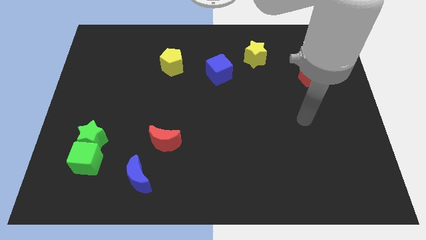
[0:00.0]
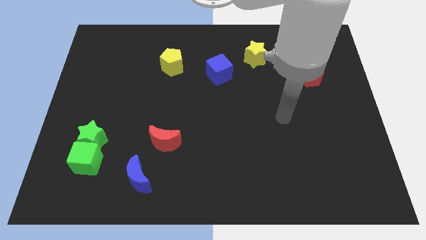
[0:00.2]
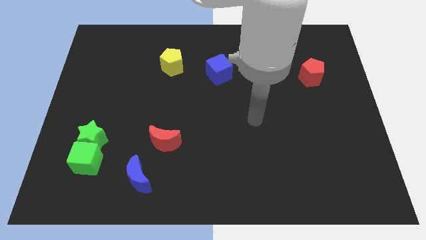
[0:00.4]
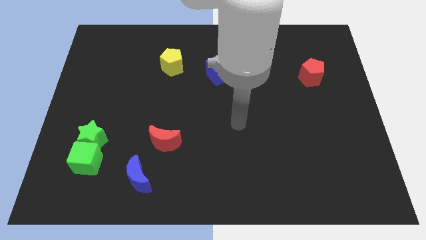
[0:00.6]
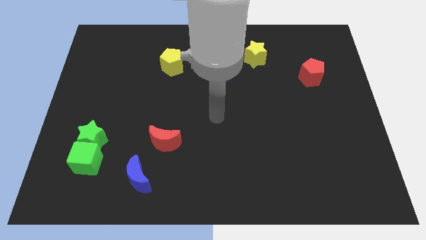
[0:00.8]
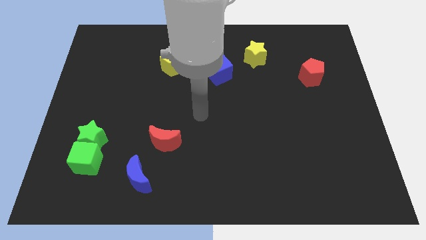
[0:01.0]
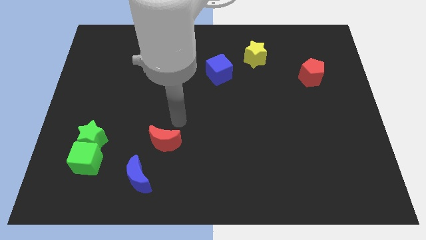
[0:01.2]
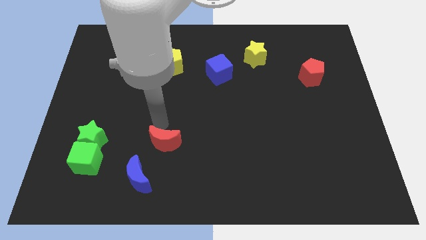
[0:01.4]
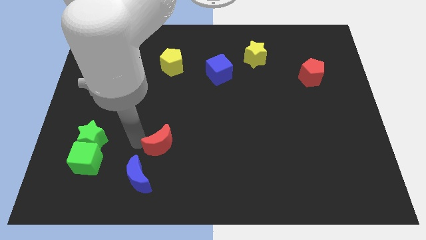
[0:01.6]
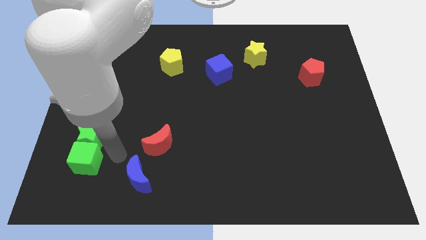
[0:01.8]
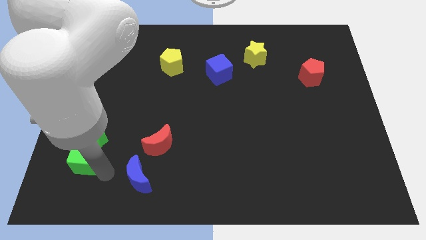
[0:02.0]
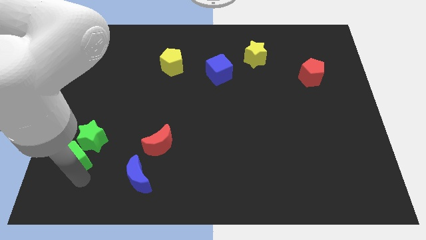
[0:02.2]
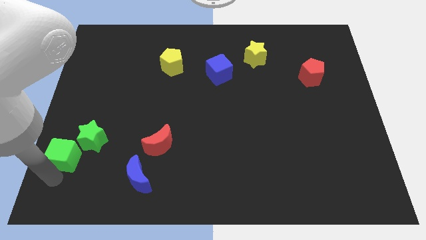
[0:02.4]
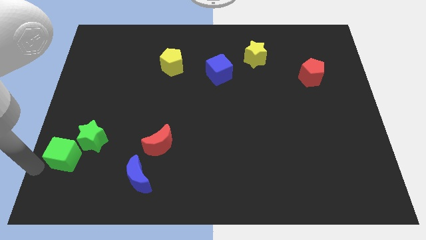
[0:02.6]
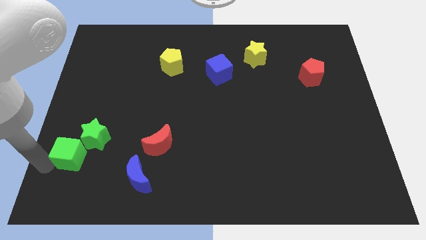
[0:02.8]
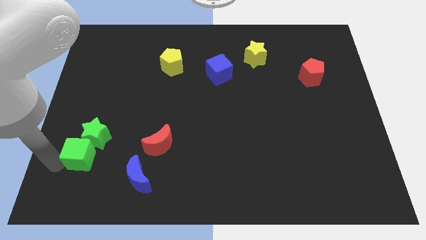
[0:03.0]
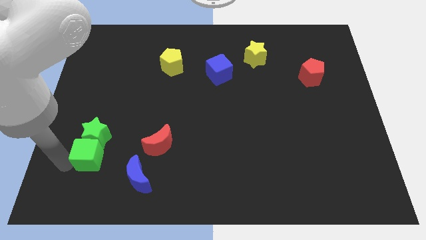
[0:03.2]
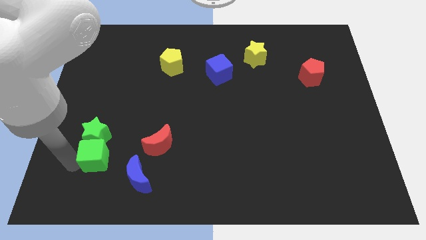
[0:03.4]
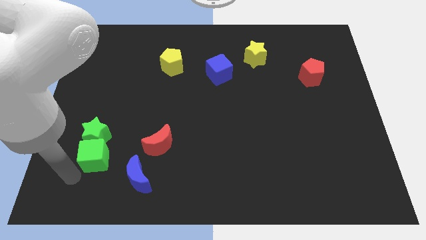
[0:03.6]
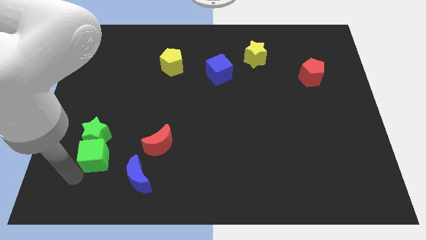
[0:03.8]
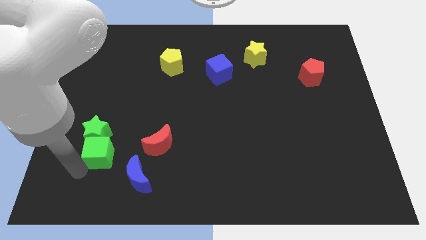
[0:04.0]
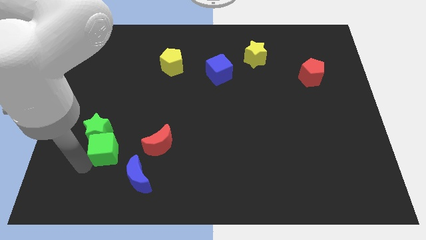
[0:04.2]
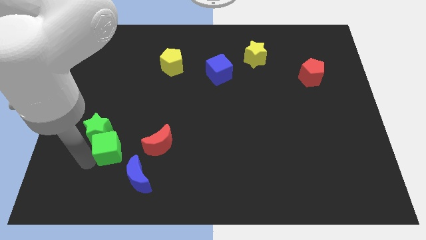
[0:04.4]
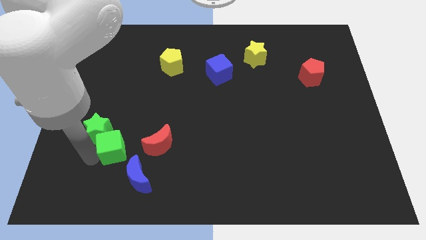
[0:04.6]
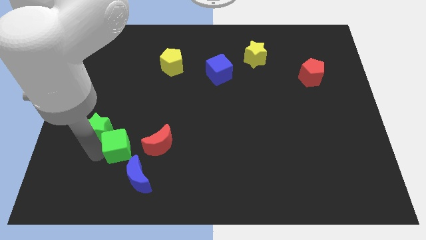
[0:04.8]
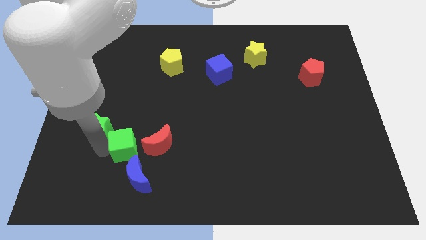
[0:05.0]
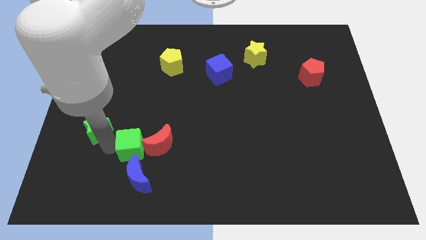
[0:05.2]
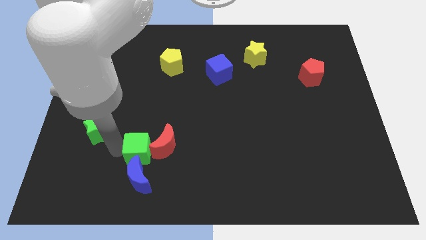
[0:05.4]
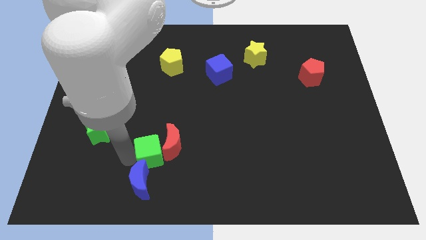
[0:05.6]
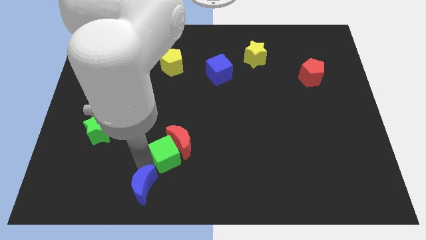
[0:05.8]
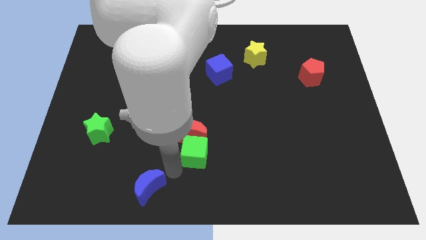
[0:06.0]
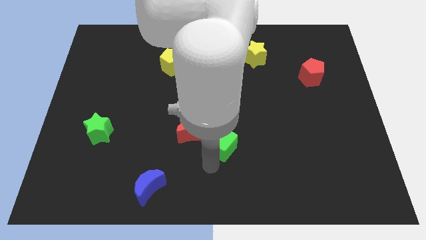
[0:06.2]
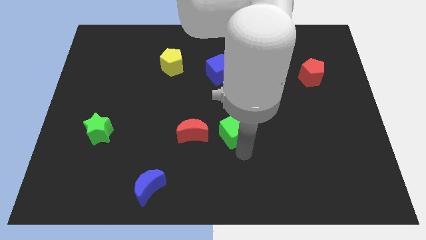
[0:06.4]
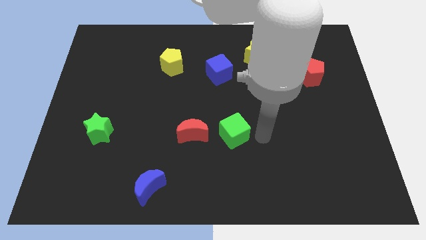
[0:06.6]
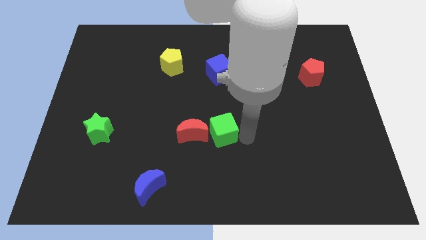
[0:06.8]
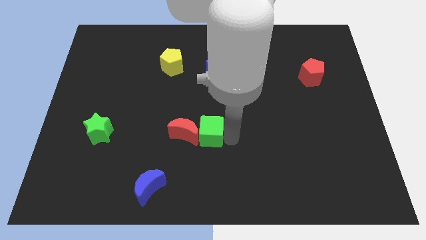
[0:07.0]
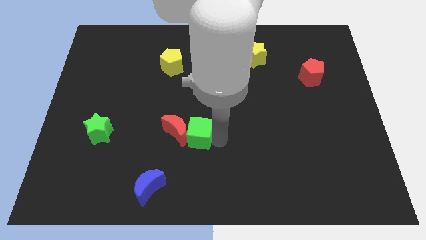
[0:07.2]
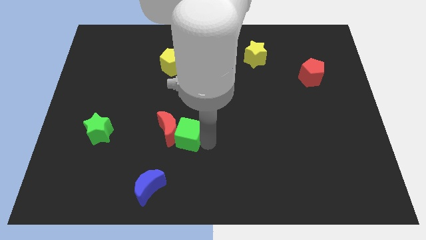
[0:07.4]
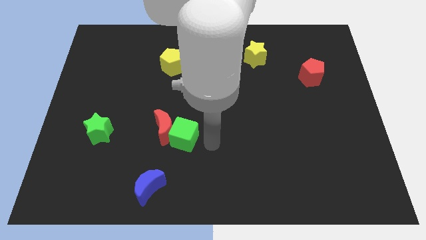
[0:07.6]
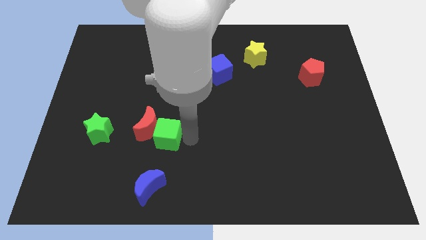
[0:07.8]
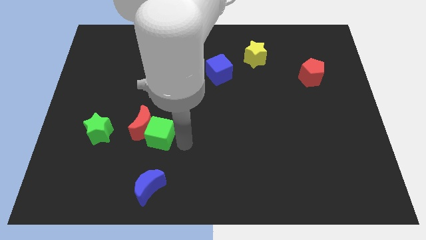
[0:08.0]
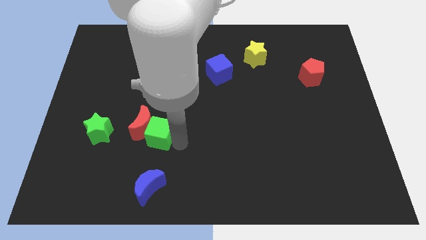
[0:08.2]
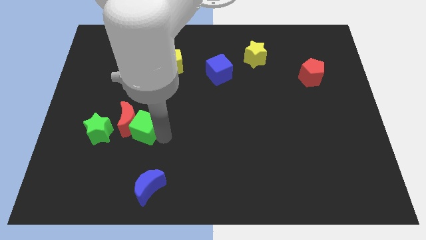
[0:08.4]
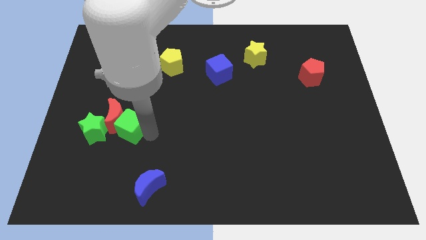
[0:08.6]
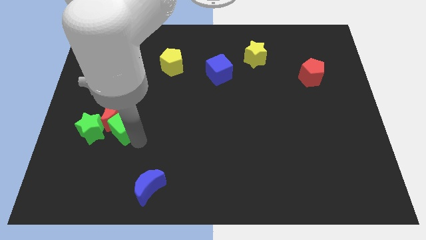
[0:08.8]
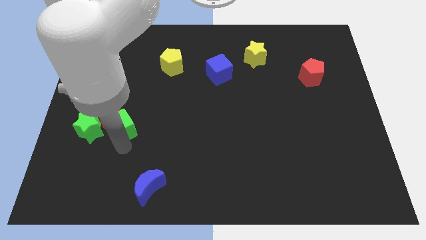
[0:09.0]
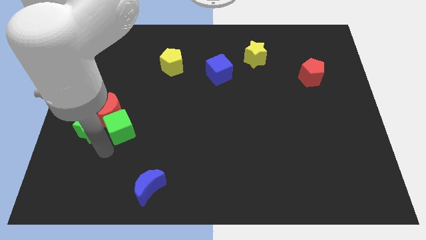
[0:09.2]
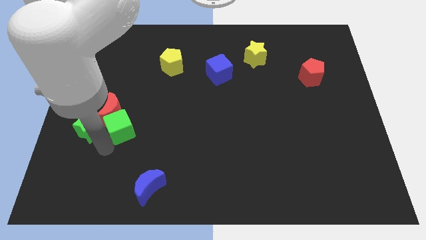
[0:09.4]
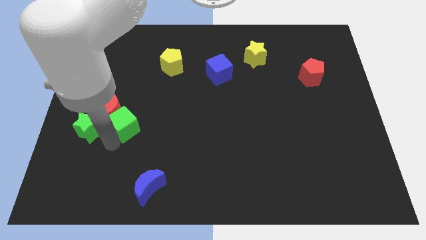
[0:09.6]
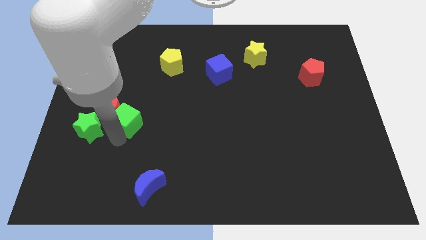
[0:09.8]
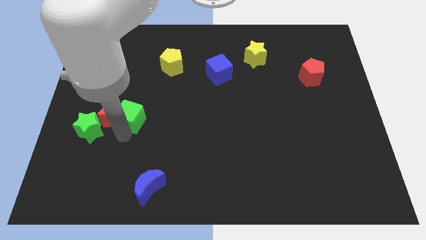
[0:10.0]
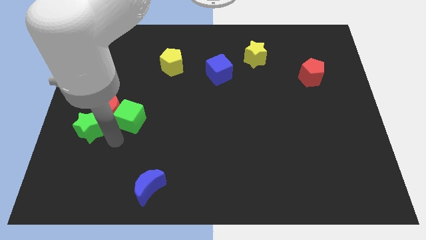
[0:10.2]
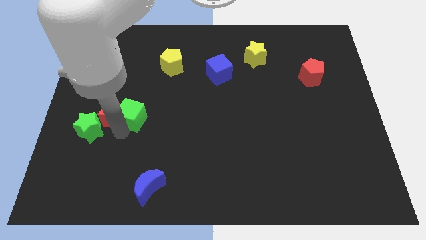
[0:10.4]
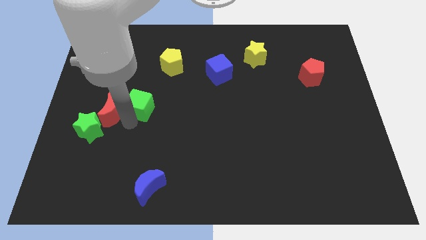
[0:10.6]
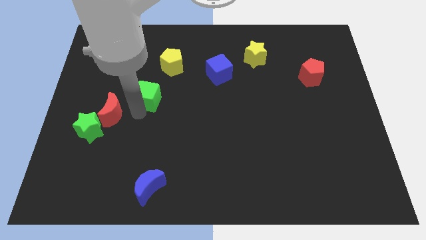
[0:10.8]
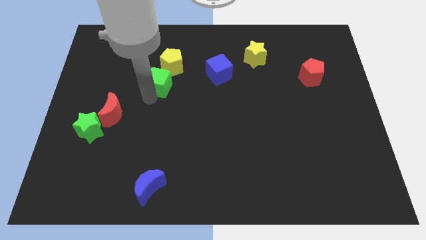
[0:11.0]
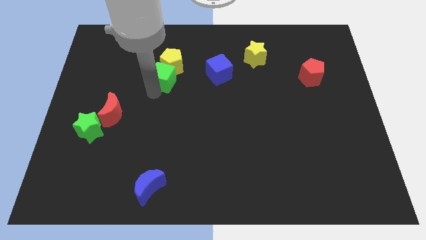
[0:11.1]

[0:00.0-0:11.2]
slide the green cube next to the yellow pentagon

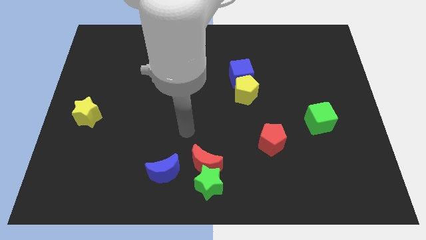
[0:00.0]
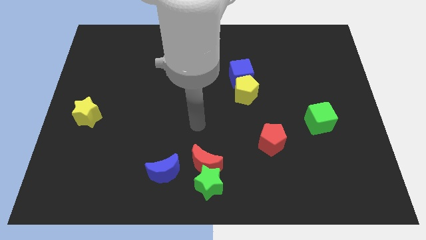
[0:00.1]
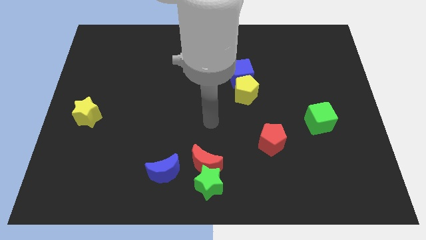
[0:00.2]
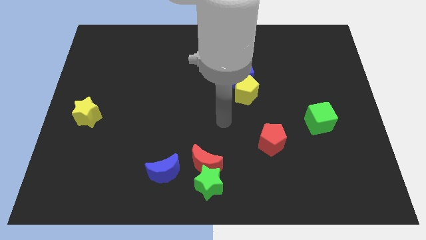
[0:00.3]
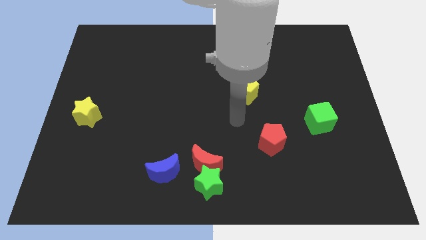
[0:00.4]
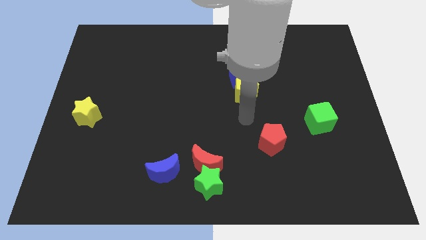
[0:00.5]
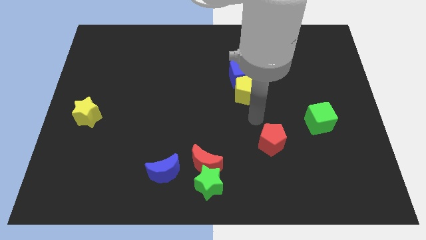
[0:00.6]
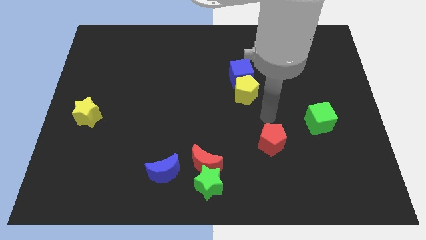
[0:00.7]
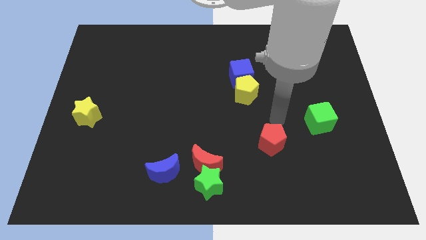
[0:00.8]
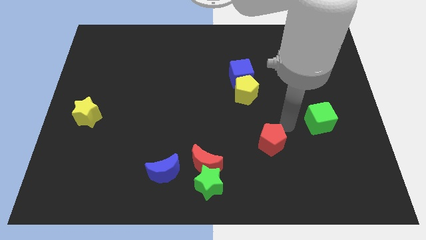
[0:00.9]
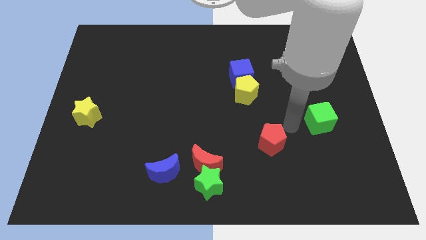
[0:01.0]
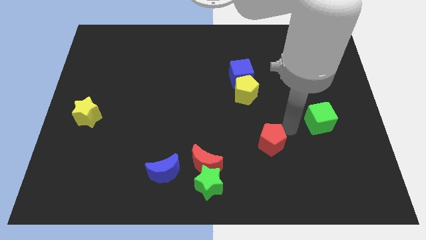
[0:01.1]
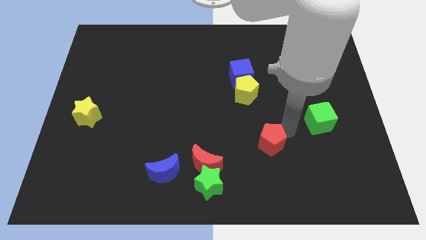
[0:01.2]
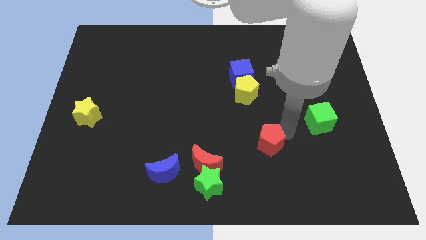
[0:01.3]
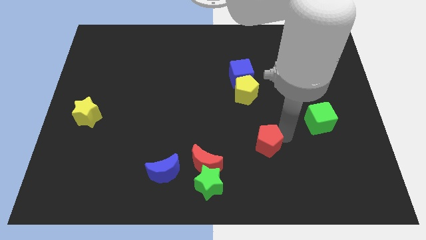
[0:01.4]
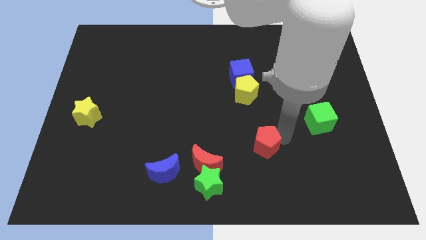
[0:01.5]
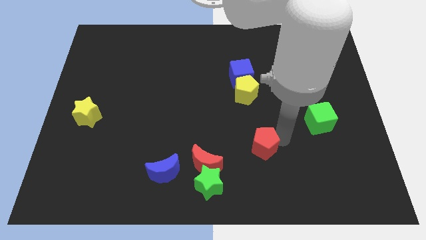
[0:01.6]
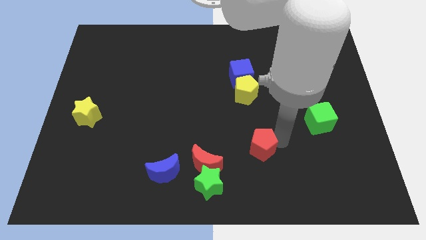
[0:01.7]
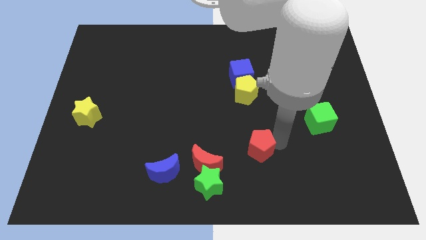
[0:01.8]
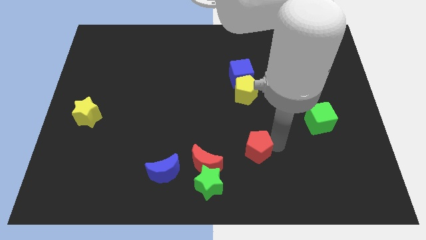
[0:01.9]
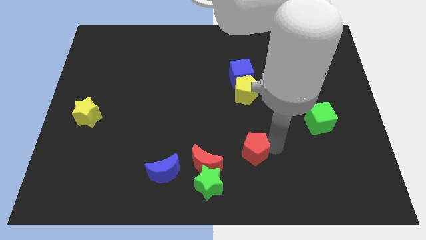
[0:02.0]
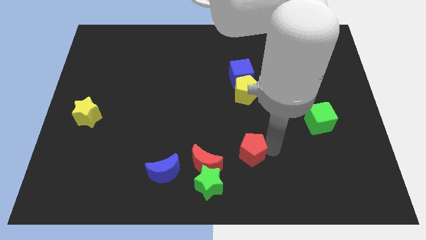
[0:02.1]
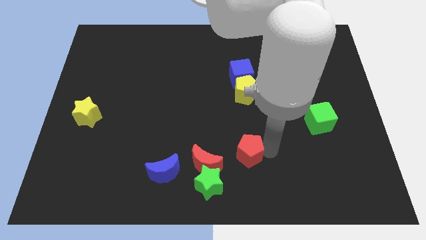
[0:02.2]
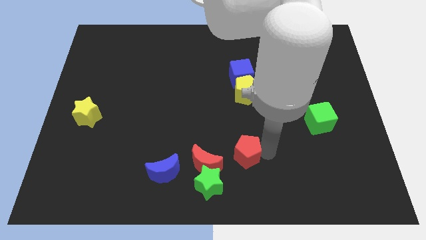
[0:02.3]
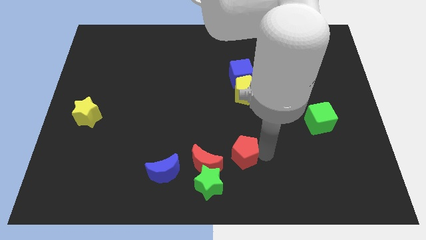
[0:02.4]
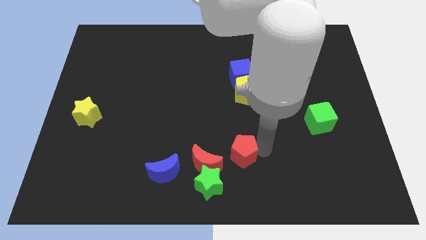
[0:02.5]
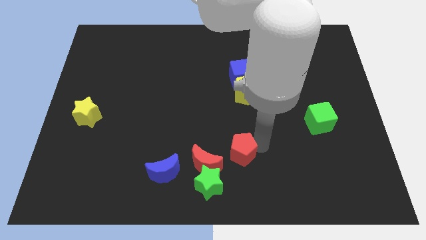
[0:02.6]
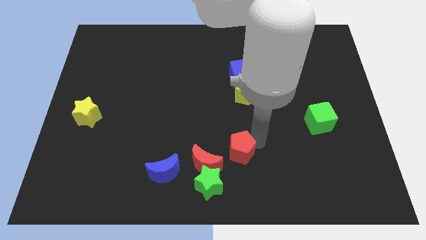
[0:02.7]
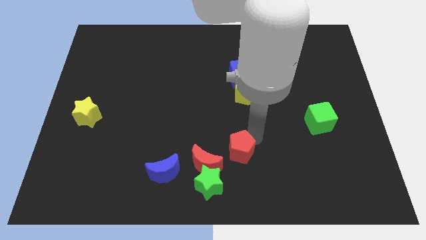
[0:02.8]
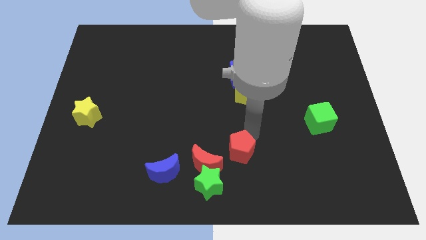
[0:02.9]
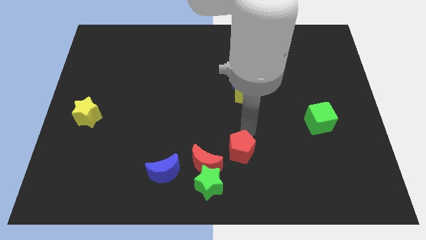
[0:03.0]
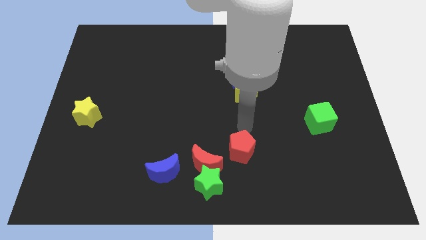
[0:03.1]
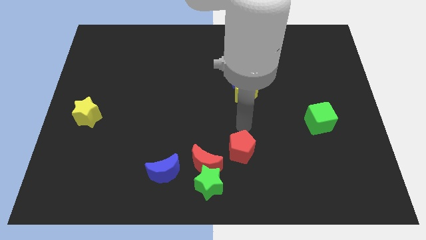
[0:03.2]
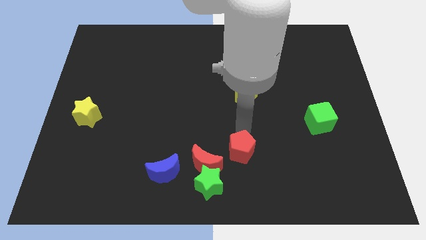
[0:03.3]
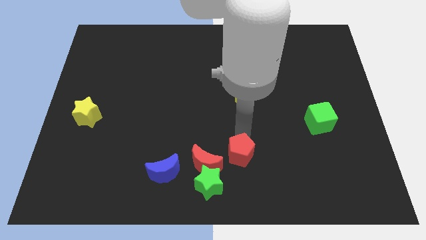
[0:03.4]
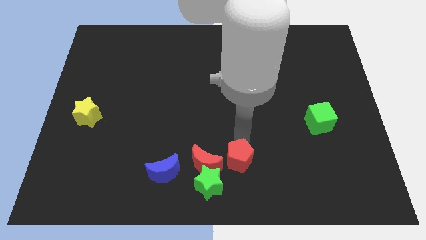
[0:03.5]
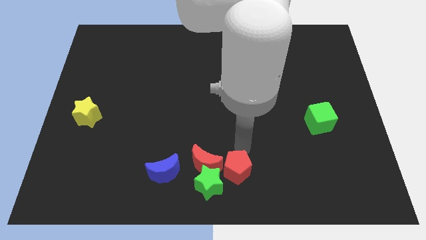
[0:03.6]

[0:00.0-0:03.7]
put the red pentagon close to the green star
